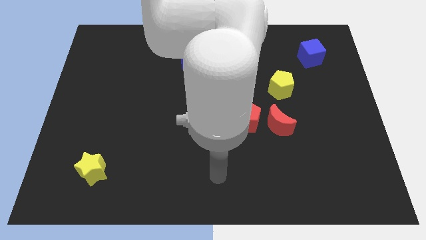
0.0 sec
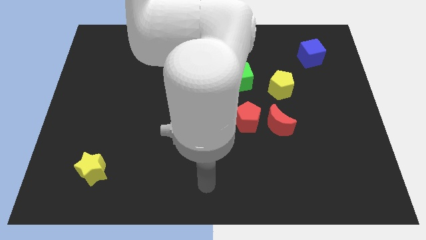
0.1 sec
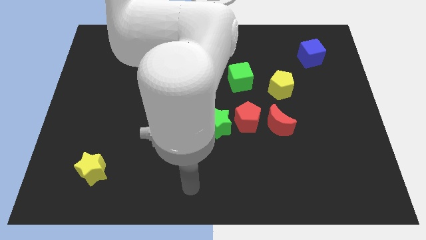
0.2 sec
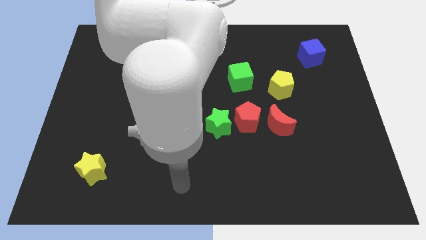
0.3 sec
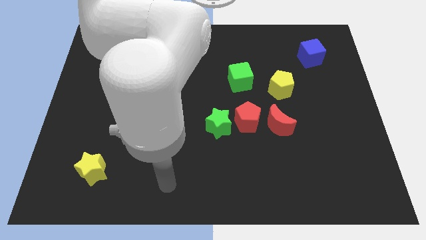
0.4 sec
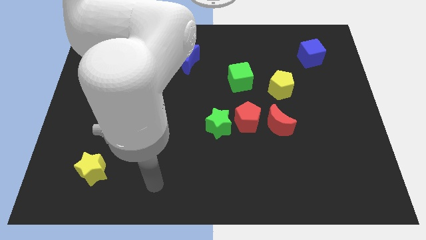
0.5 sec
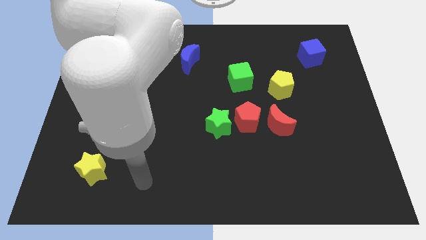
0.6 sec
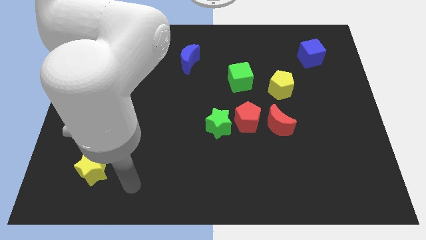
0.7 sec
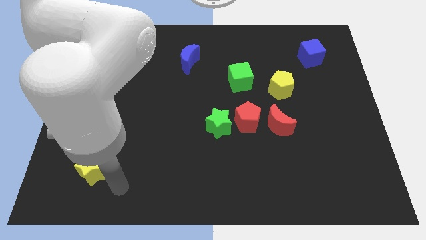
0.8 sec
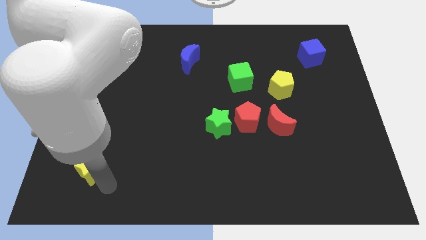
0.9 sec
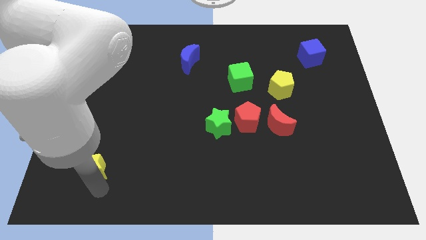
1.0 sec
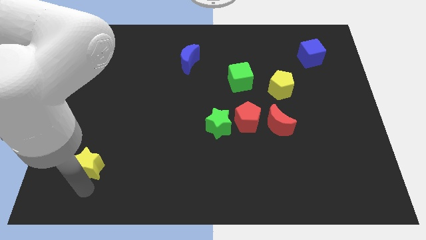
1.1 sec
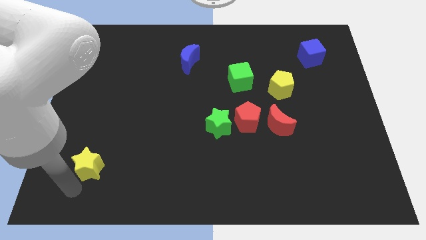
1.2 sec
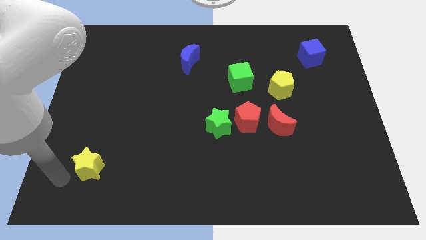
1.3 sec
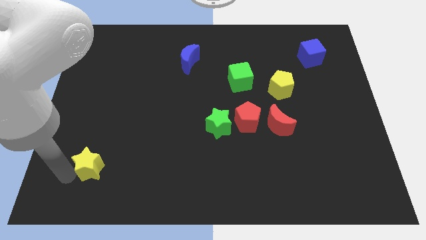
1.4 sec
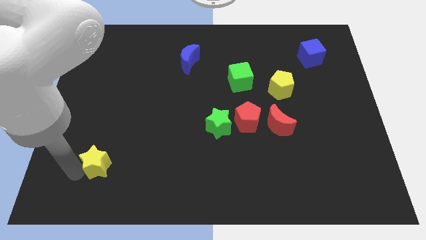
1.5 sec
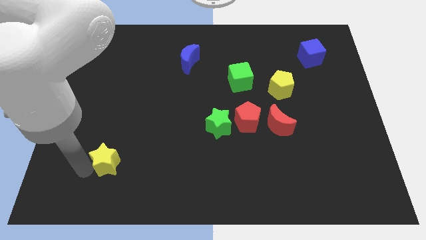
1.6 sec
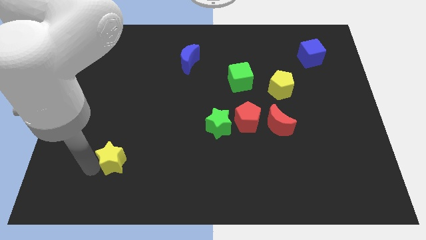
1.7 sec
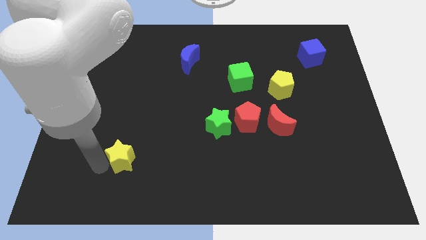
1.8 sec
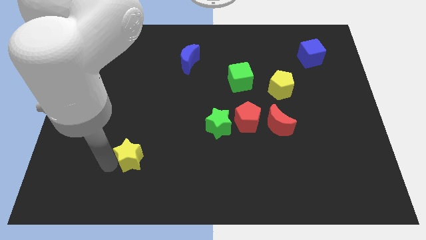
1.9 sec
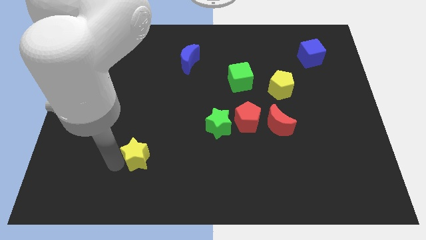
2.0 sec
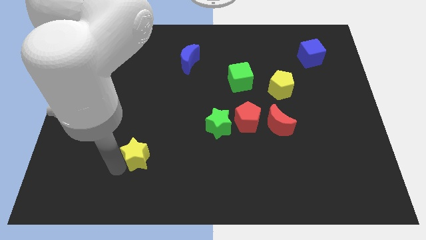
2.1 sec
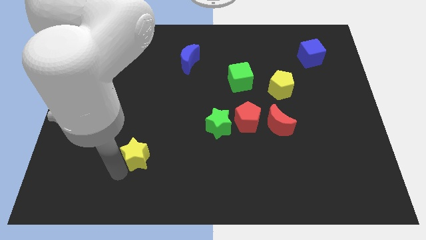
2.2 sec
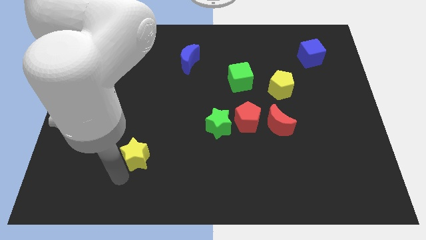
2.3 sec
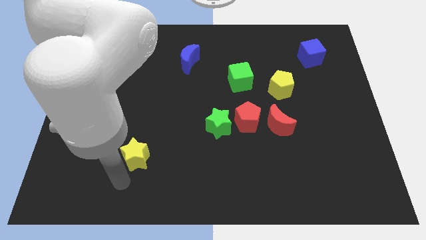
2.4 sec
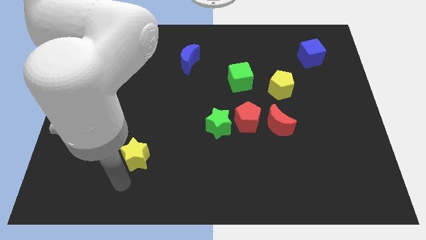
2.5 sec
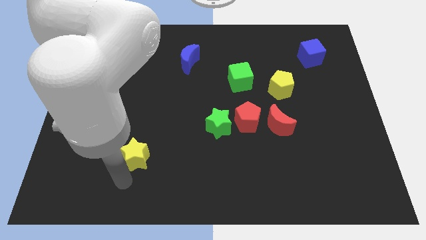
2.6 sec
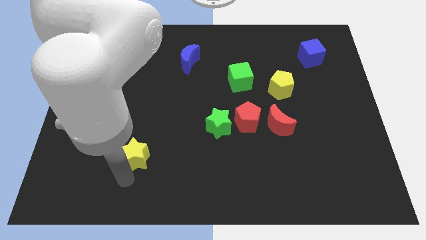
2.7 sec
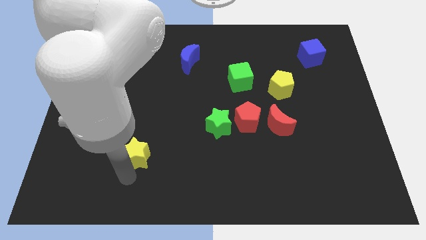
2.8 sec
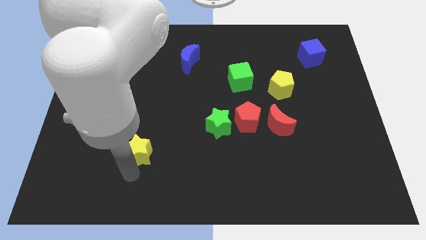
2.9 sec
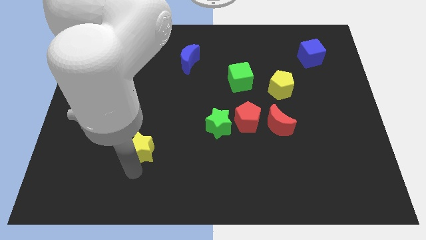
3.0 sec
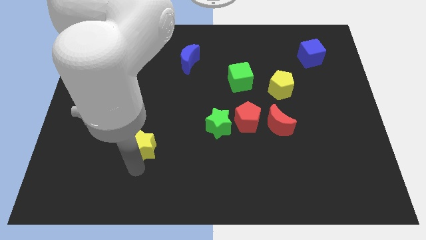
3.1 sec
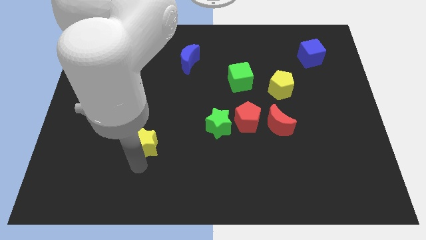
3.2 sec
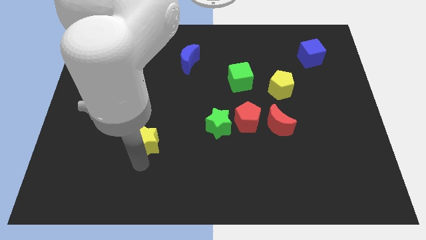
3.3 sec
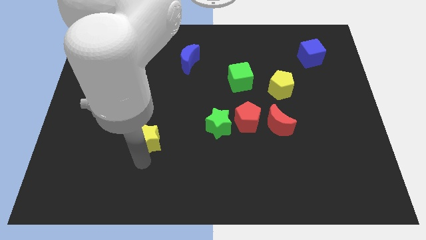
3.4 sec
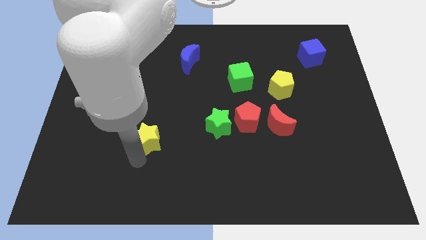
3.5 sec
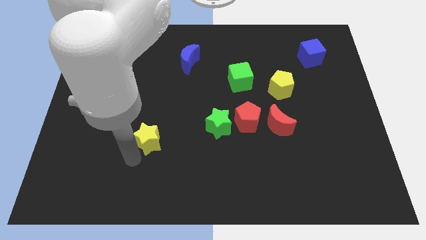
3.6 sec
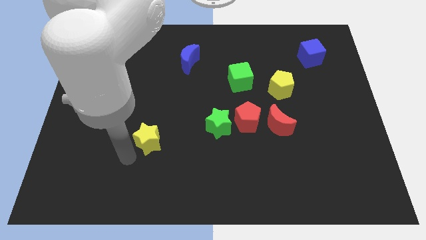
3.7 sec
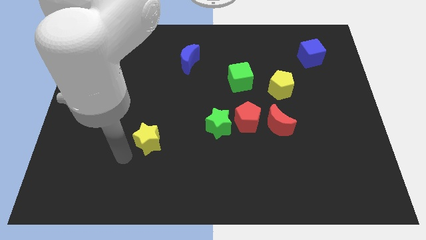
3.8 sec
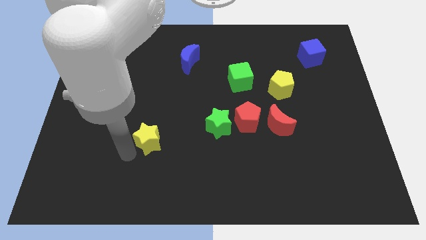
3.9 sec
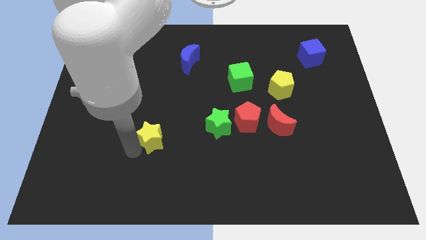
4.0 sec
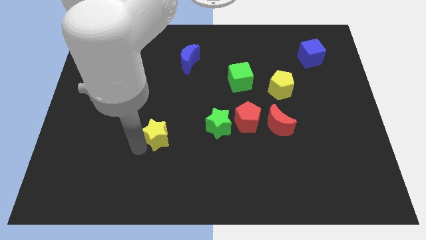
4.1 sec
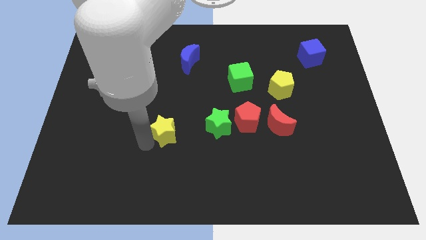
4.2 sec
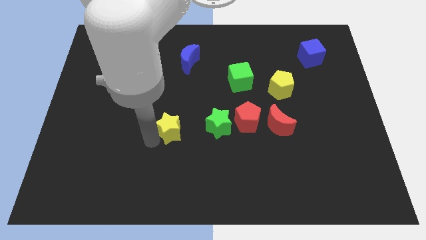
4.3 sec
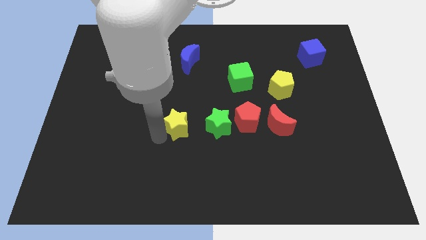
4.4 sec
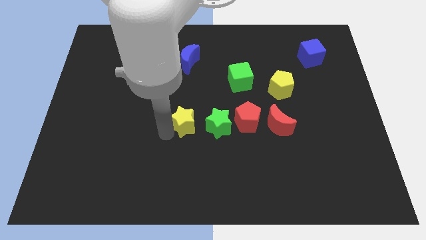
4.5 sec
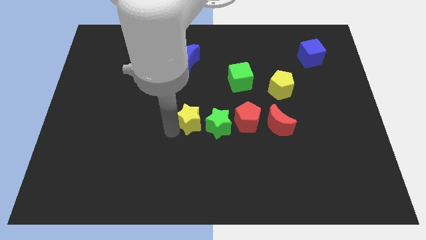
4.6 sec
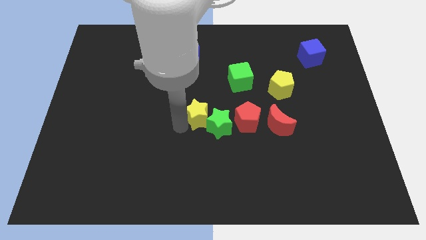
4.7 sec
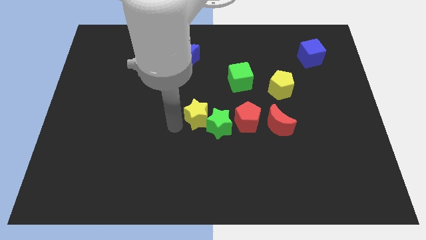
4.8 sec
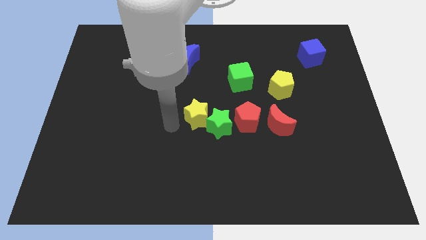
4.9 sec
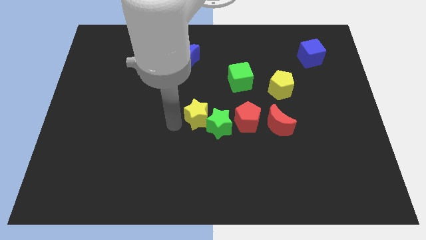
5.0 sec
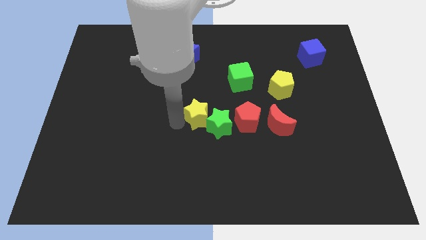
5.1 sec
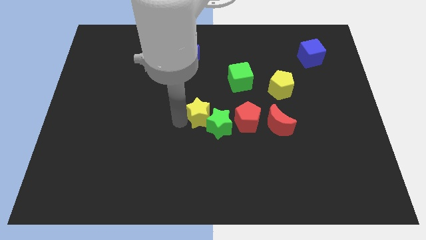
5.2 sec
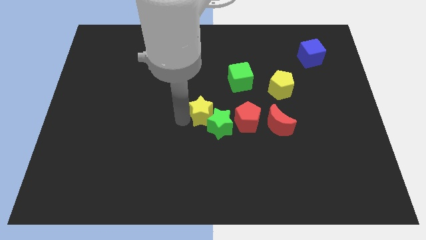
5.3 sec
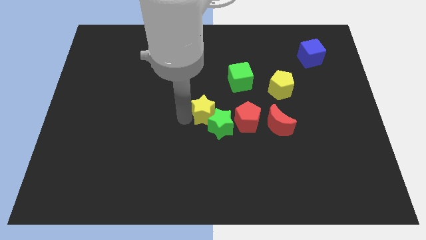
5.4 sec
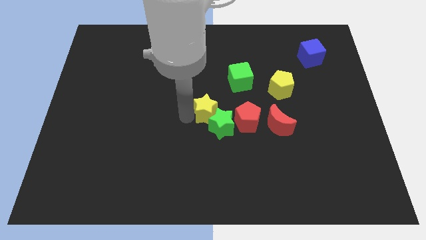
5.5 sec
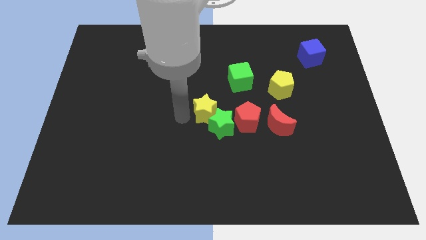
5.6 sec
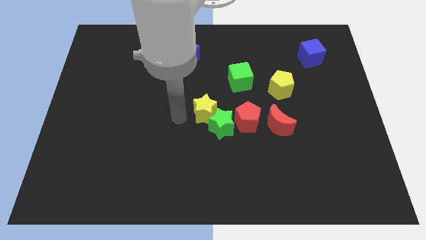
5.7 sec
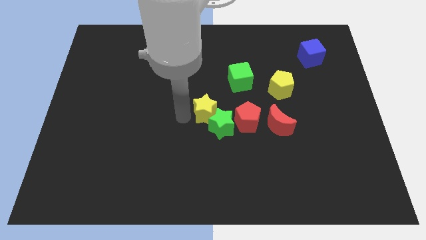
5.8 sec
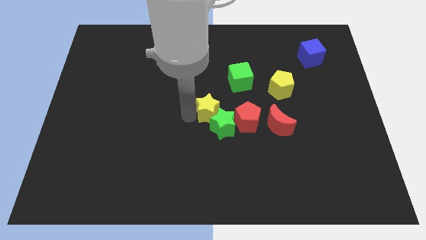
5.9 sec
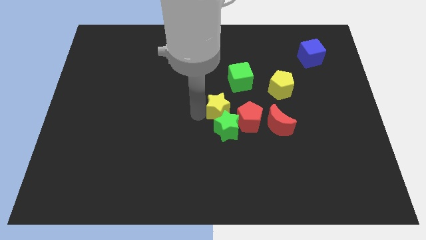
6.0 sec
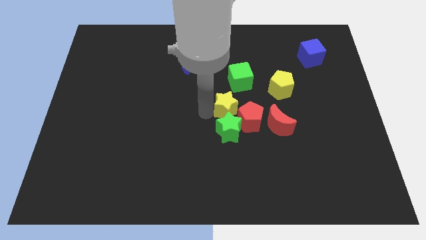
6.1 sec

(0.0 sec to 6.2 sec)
move the yellow star to the top right of the green star

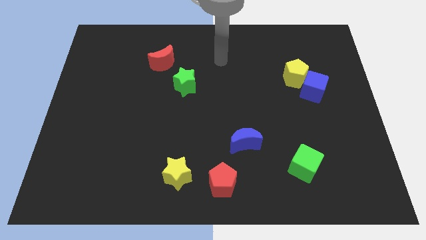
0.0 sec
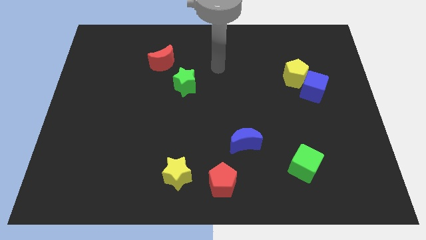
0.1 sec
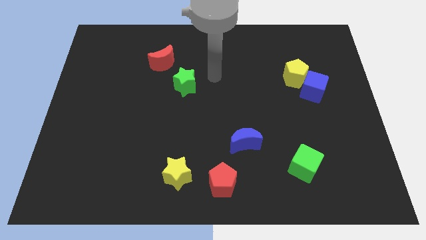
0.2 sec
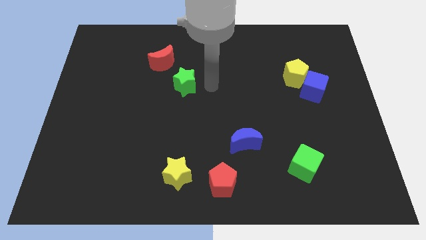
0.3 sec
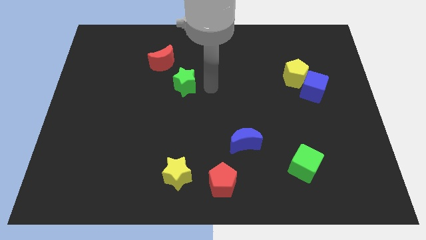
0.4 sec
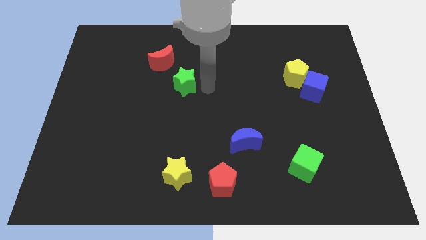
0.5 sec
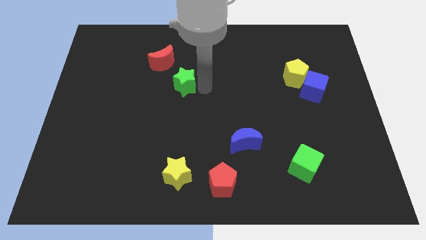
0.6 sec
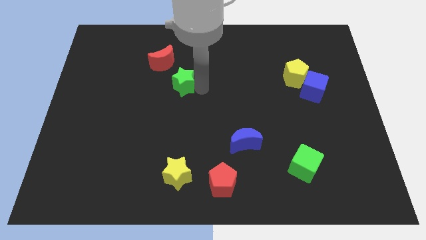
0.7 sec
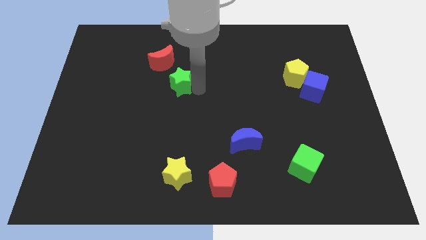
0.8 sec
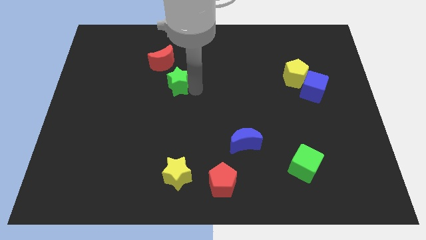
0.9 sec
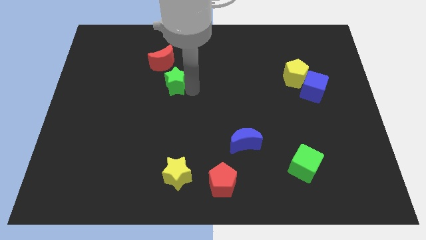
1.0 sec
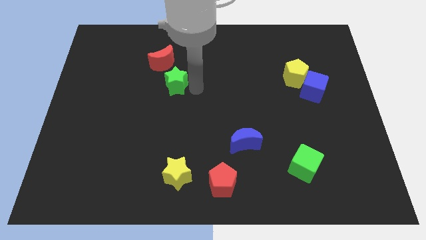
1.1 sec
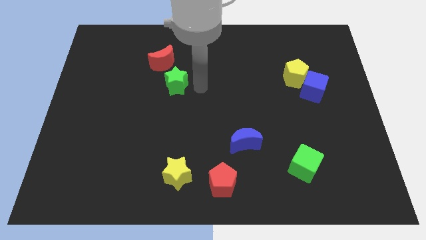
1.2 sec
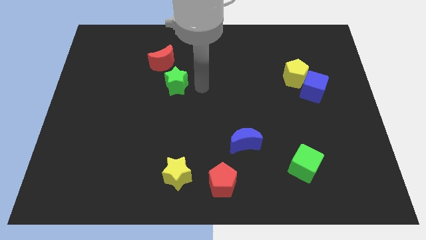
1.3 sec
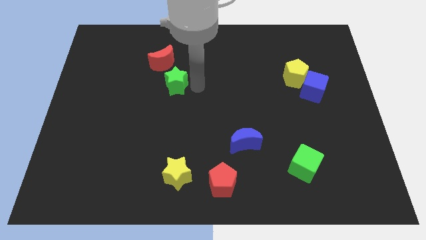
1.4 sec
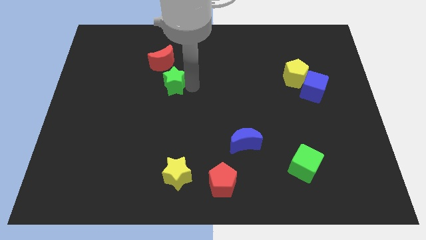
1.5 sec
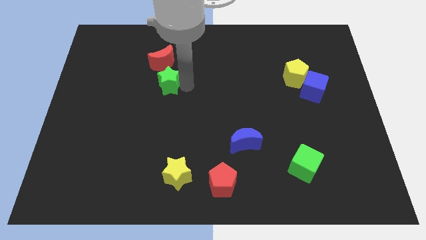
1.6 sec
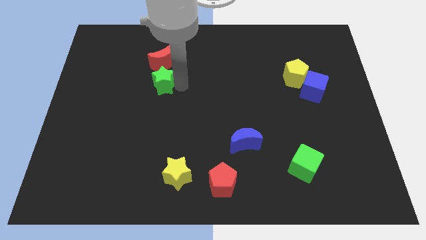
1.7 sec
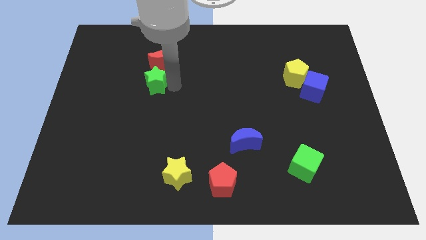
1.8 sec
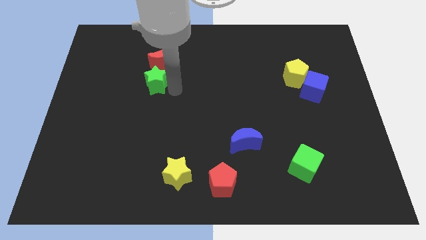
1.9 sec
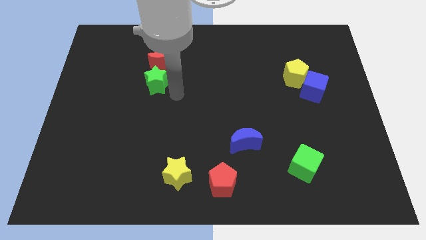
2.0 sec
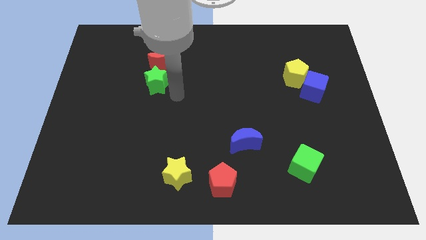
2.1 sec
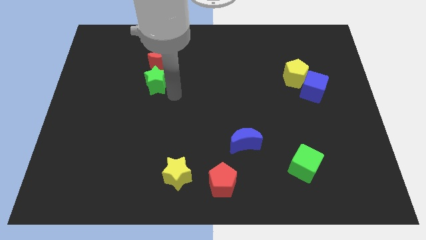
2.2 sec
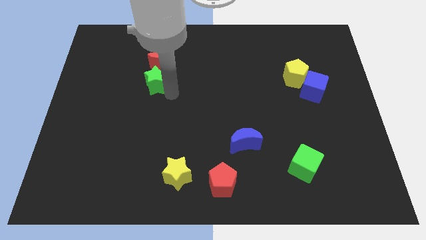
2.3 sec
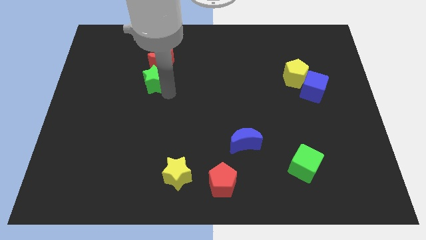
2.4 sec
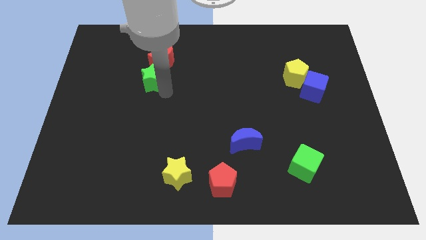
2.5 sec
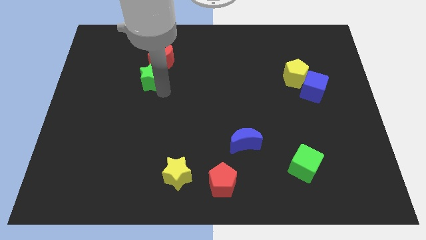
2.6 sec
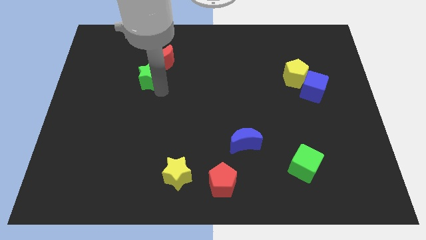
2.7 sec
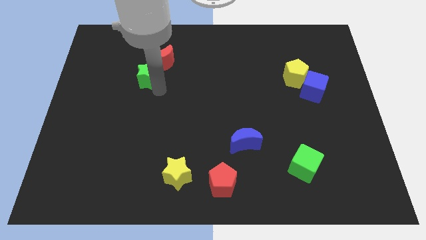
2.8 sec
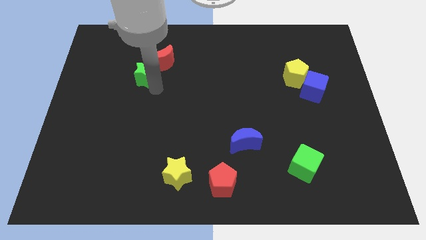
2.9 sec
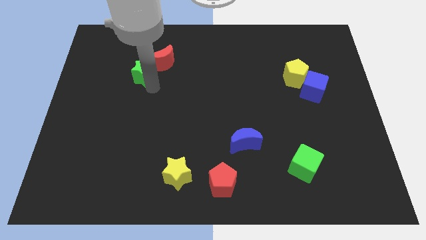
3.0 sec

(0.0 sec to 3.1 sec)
move the green star to the left side of the red moon
